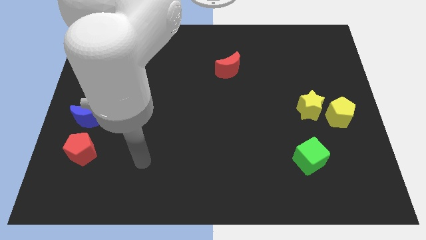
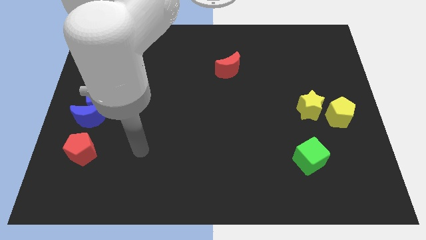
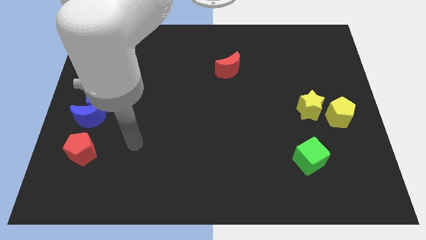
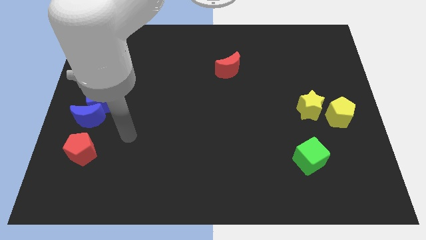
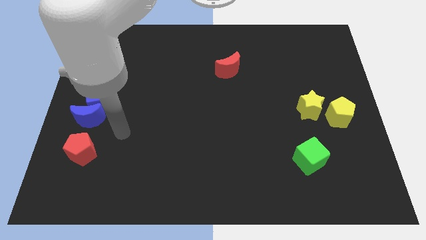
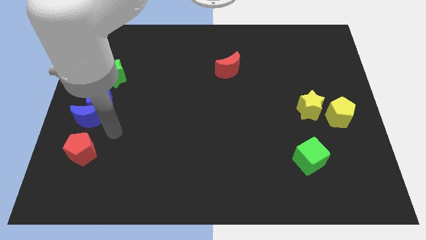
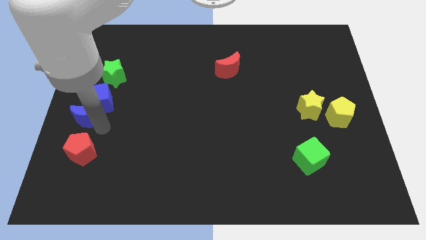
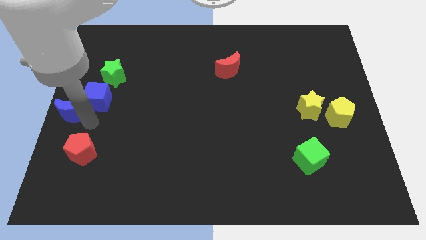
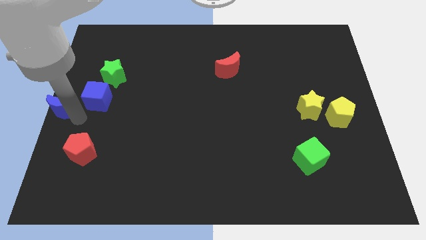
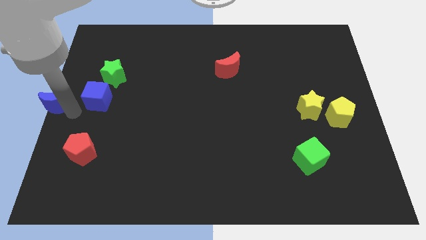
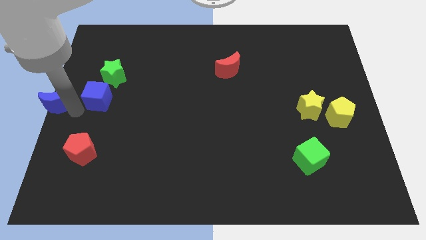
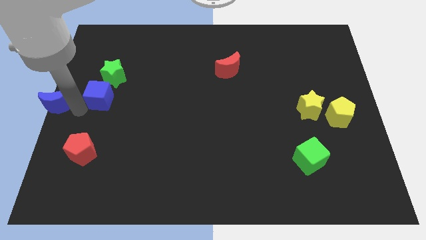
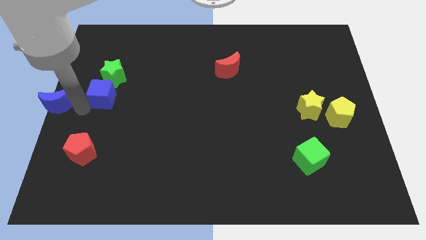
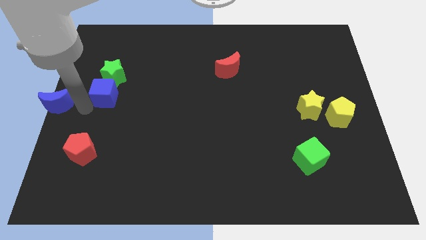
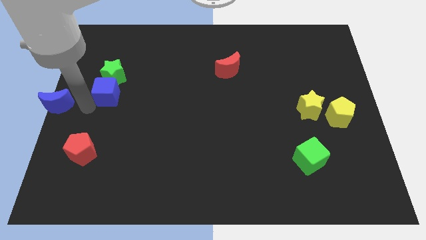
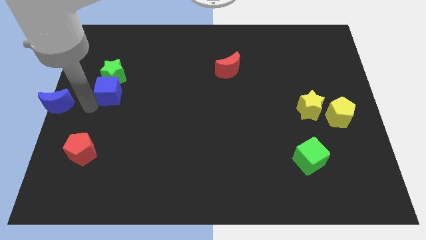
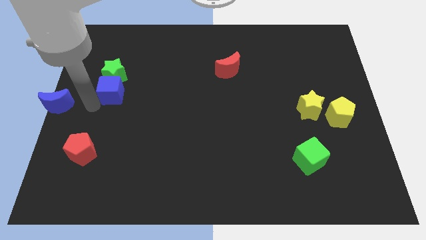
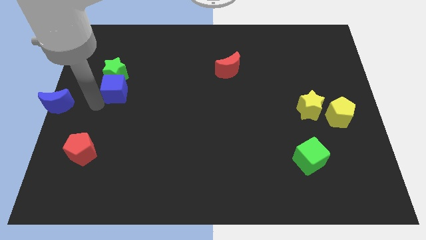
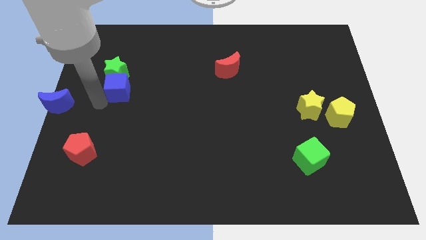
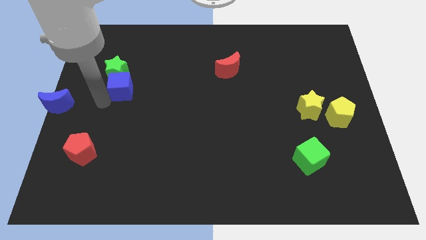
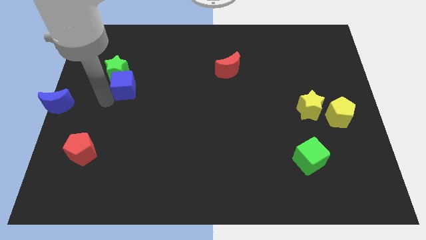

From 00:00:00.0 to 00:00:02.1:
move the blue cube diagonally upwards and to the right a bit

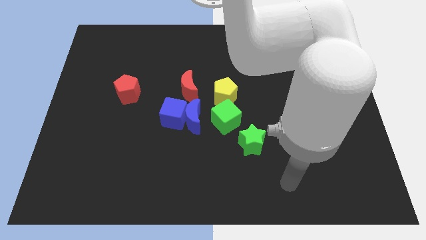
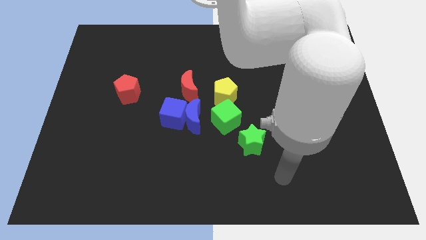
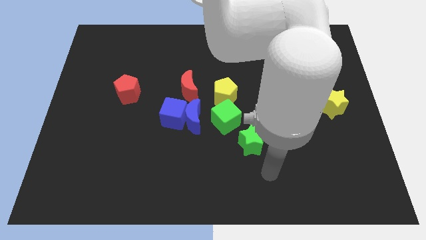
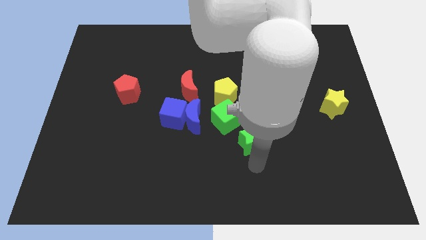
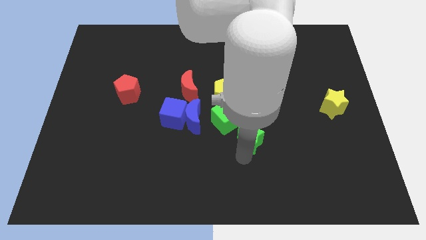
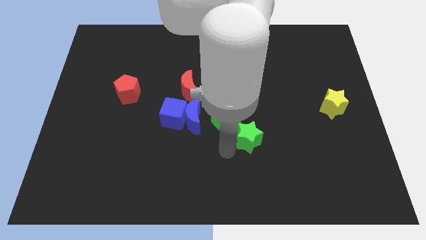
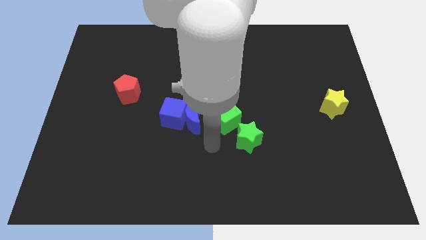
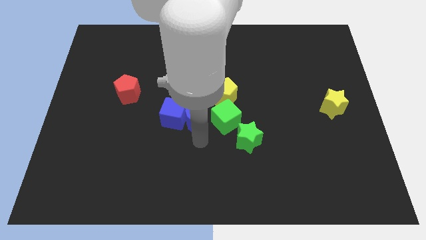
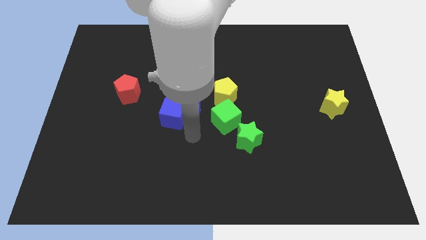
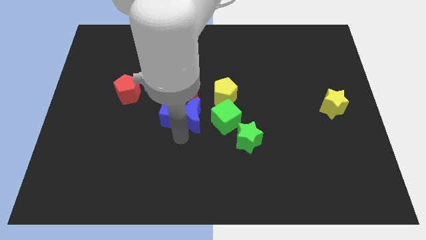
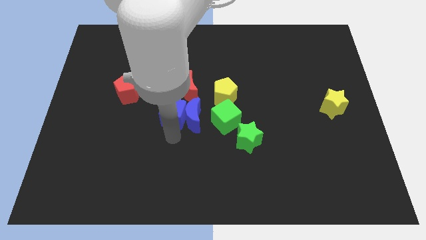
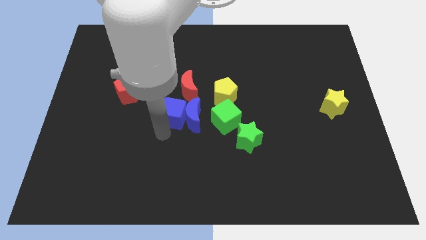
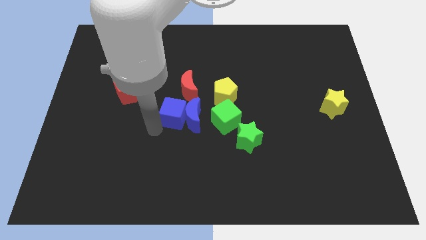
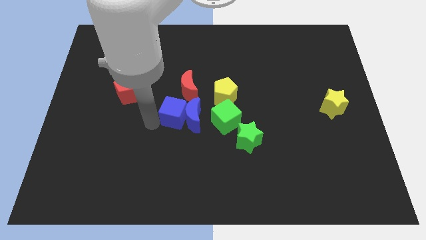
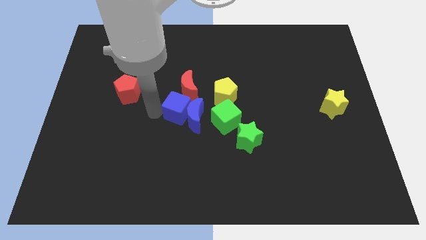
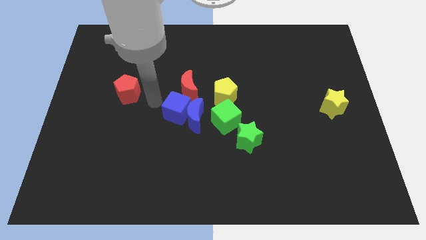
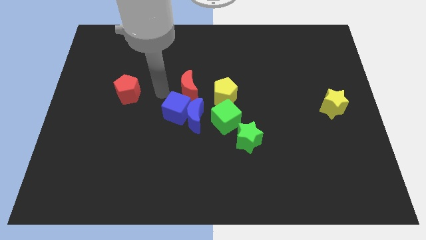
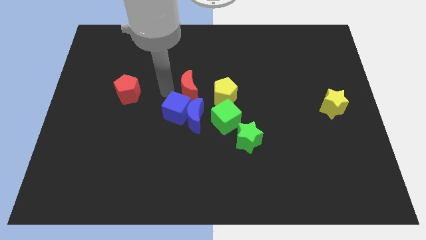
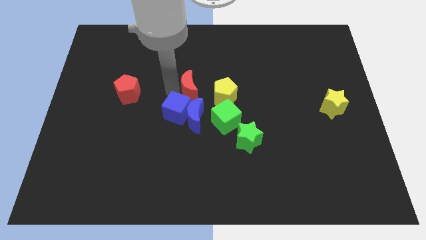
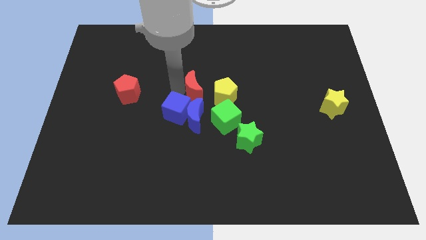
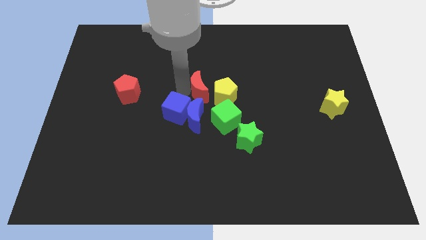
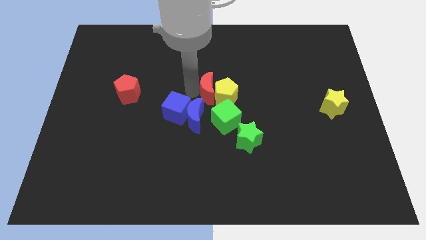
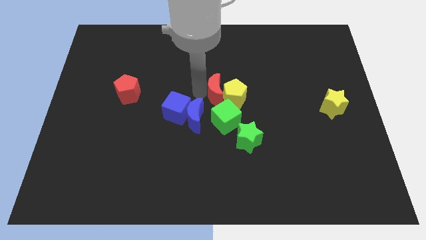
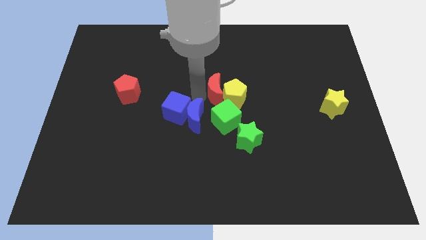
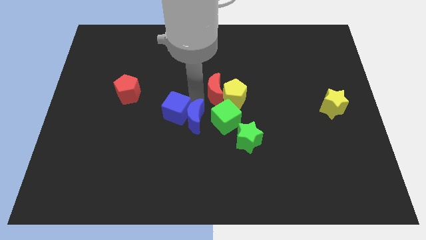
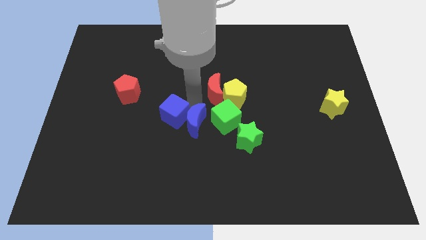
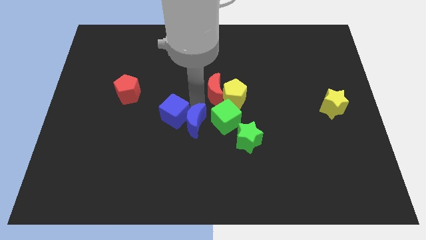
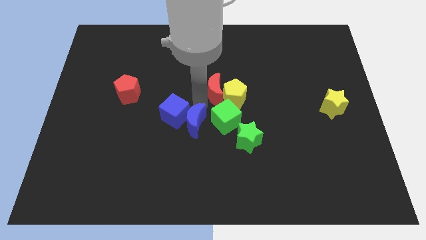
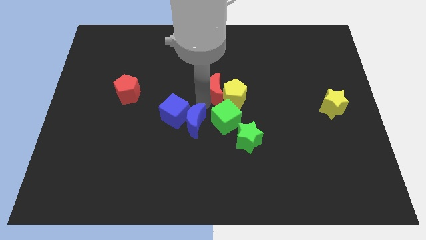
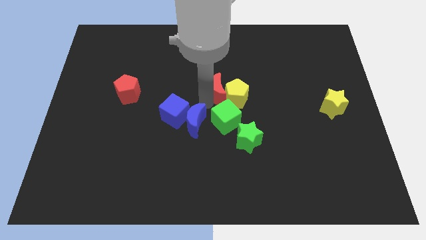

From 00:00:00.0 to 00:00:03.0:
move the red moon a bit right

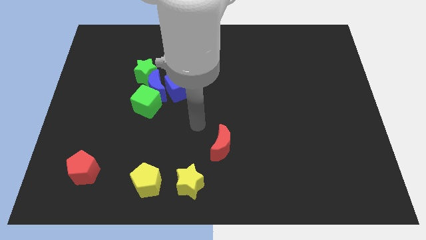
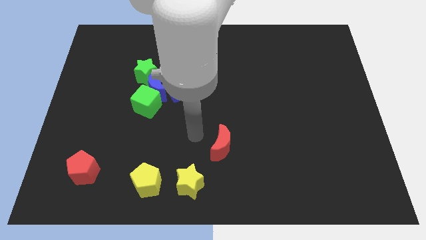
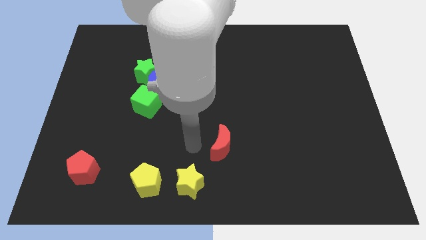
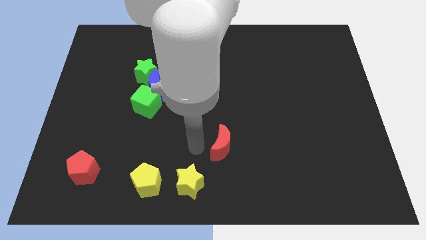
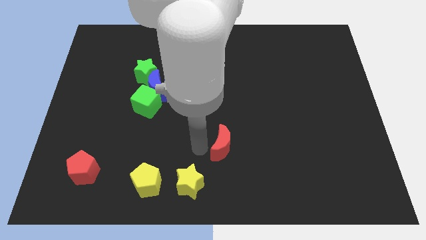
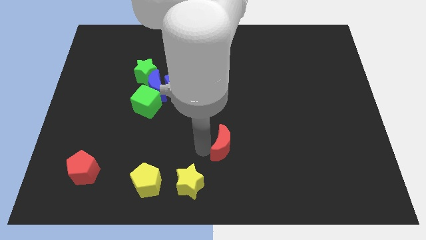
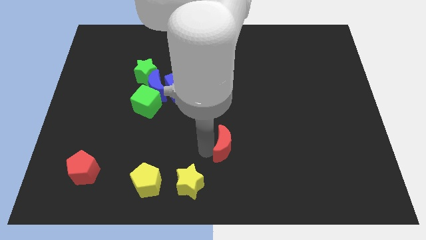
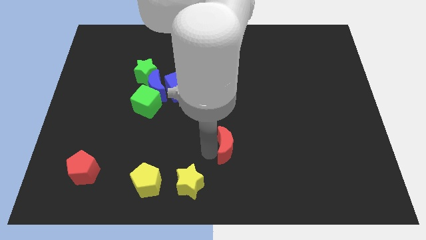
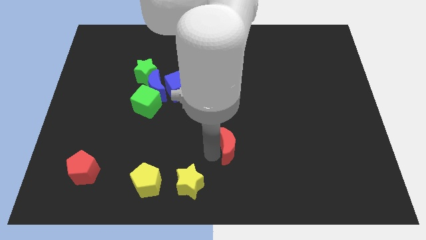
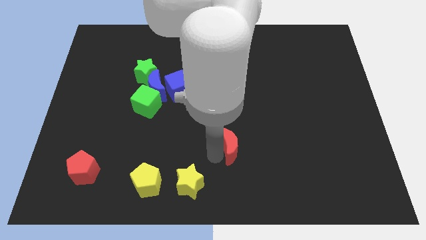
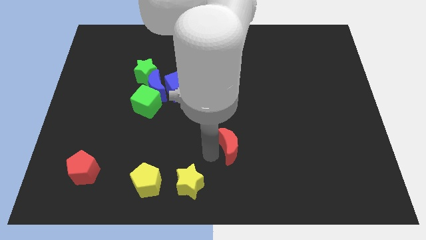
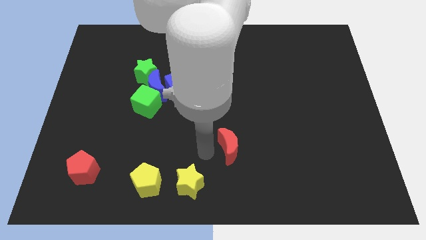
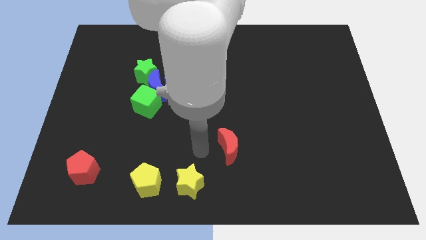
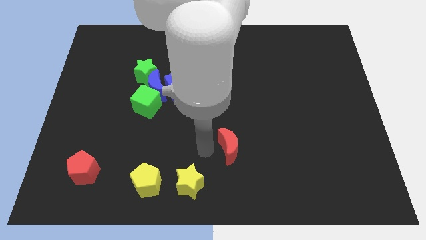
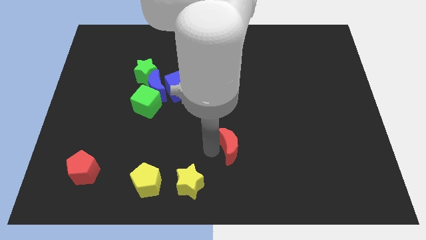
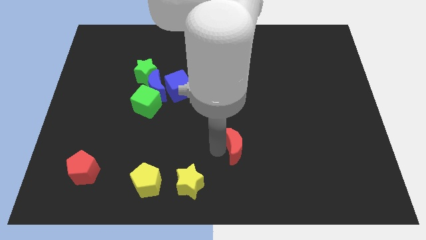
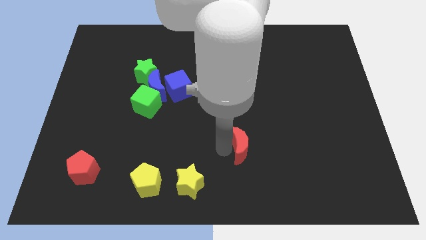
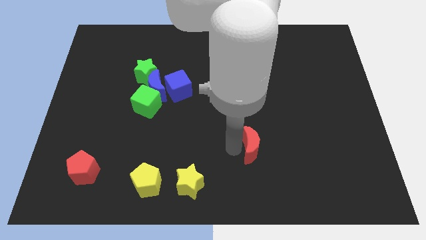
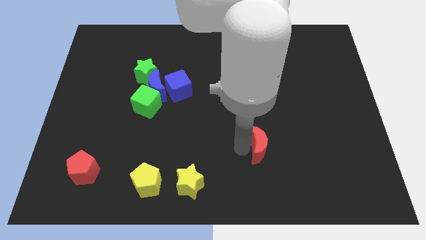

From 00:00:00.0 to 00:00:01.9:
slightly slide the red moon to the right

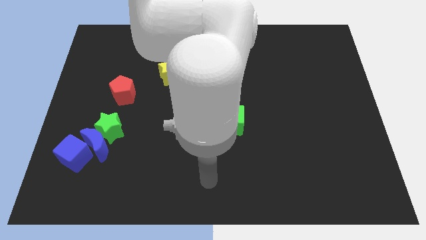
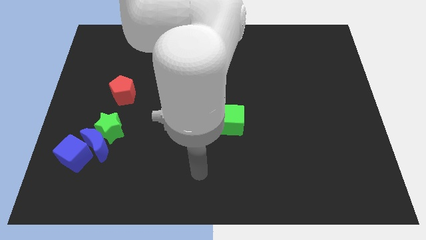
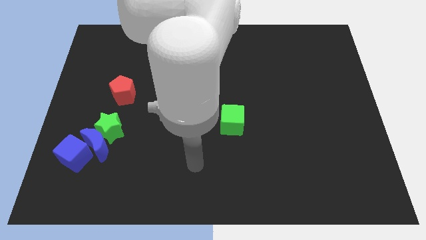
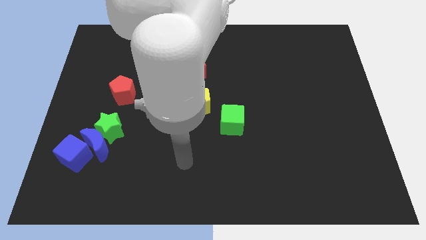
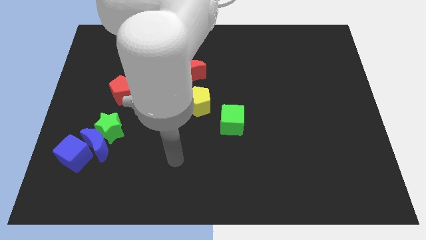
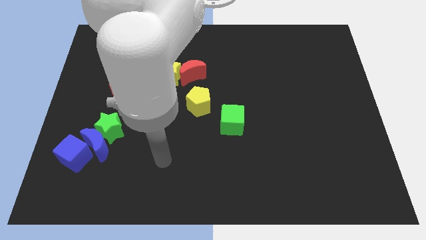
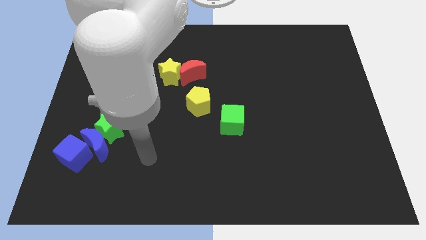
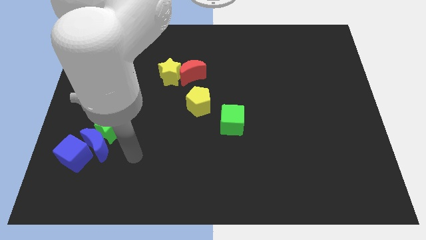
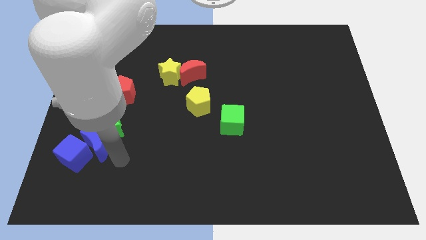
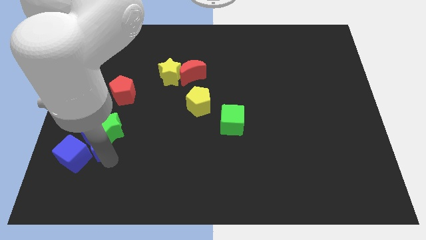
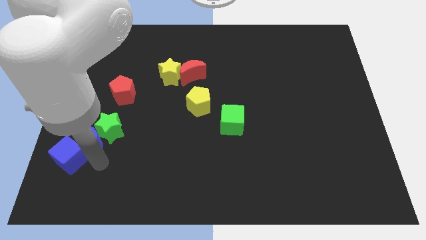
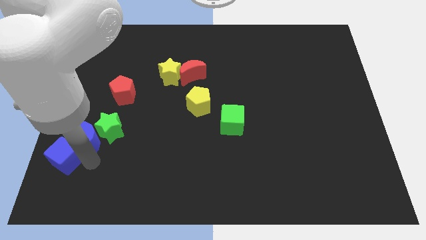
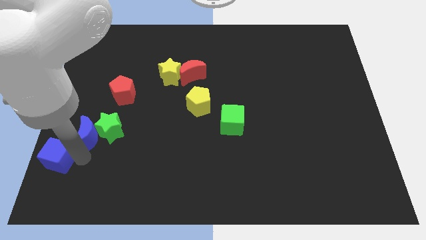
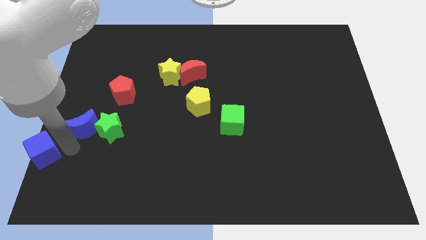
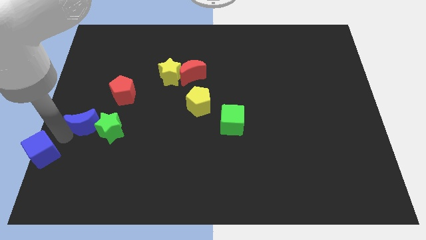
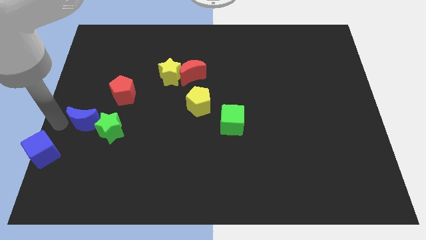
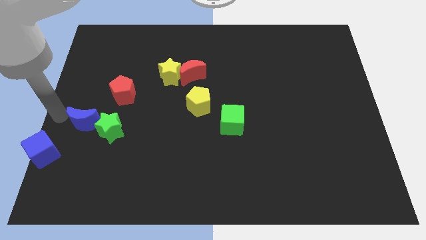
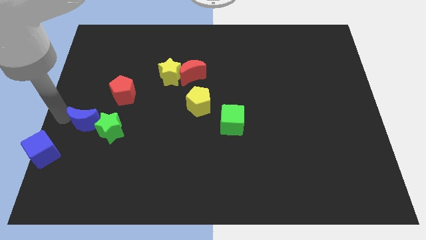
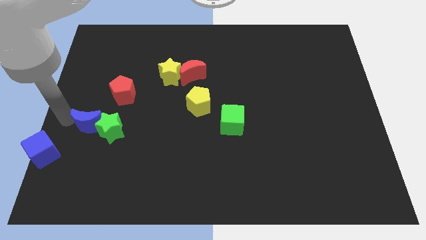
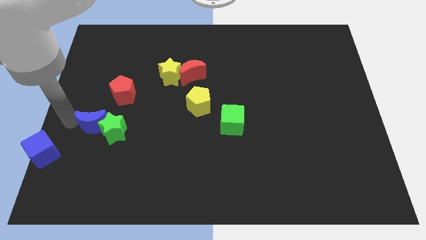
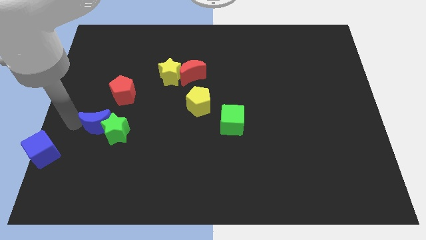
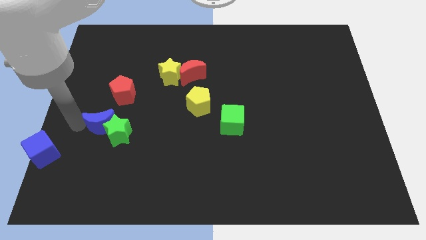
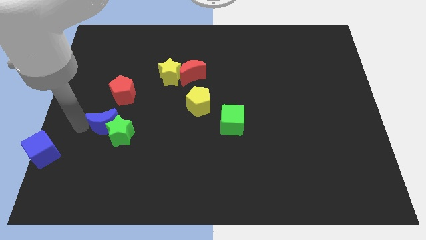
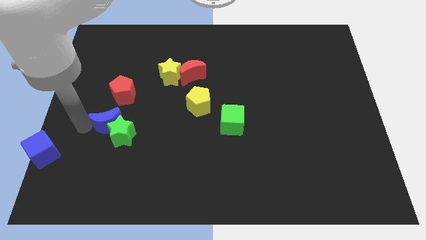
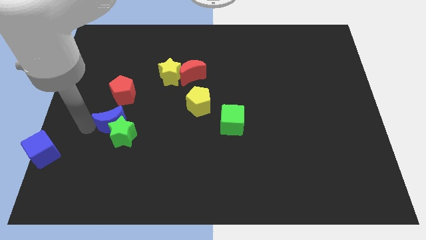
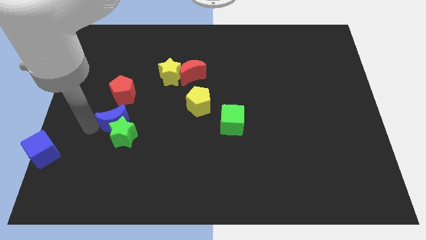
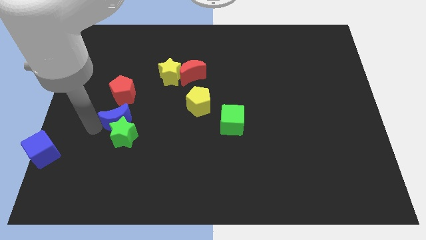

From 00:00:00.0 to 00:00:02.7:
slightly move the blue moon upwards and right diagonally
